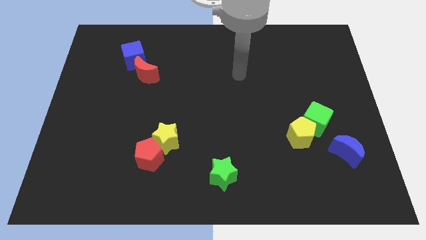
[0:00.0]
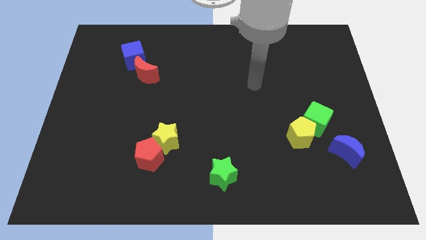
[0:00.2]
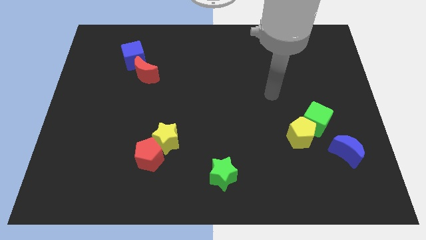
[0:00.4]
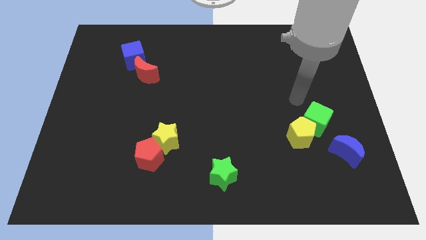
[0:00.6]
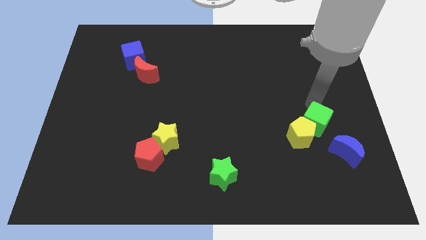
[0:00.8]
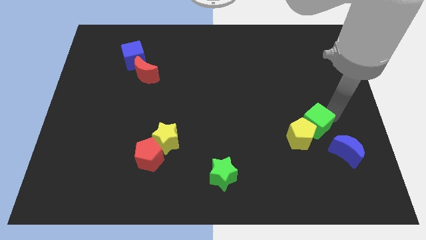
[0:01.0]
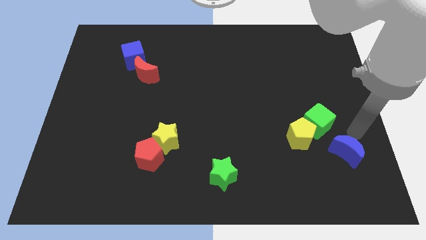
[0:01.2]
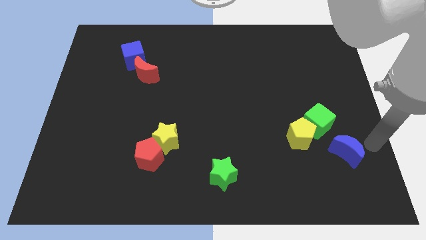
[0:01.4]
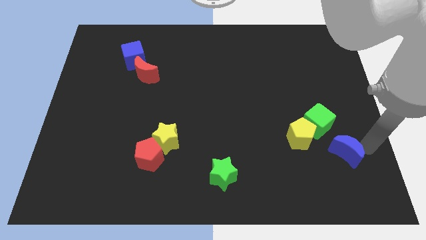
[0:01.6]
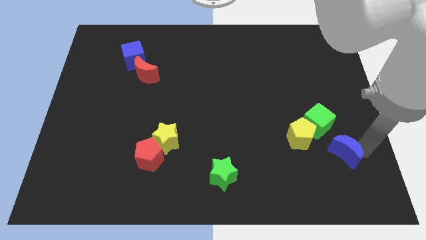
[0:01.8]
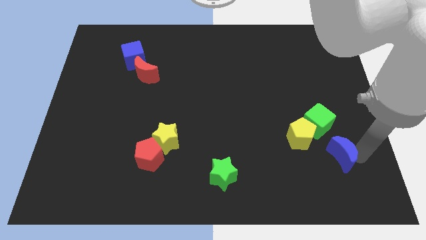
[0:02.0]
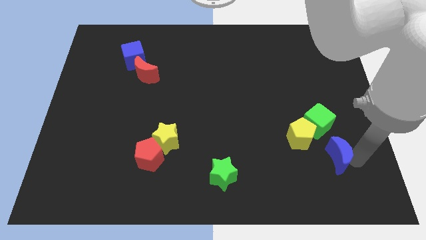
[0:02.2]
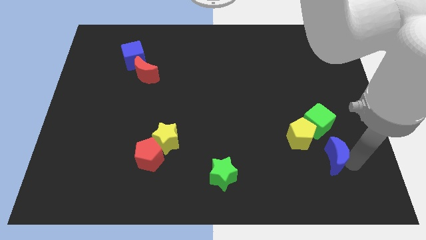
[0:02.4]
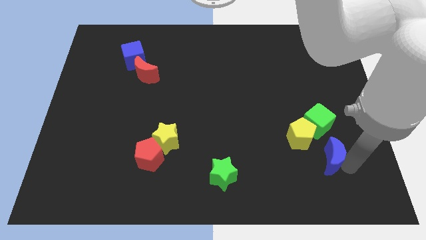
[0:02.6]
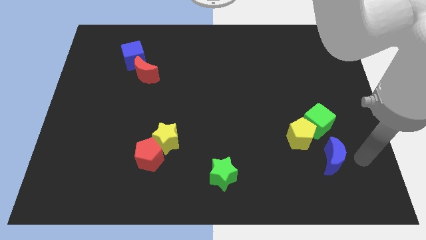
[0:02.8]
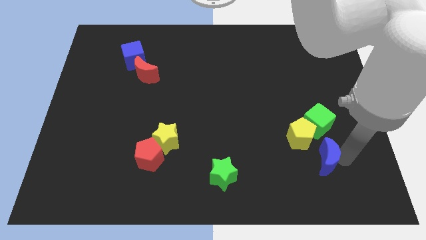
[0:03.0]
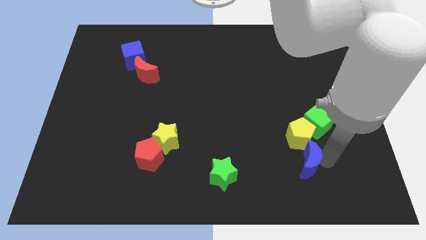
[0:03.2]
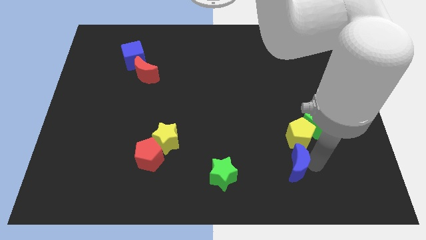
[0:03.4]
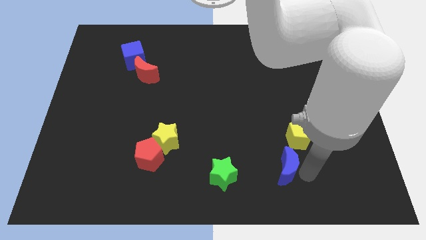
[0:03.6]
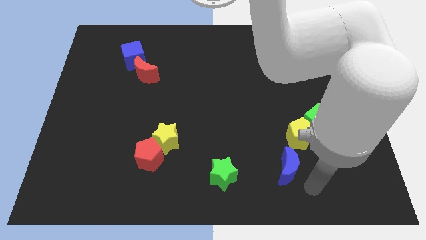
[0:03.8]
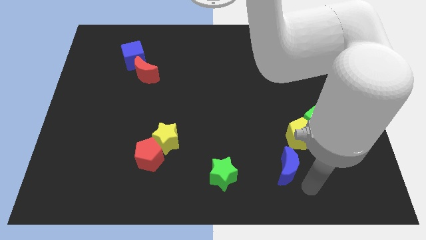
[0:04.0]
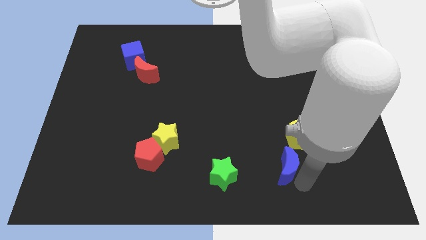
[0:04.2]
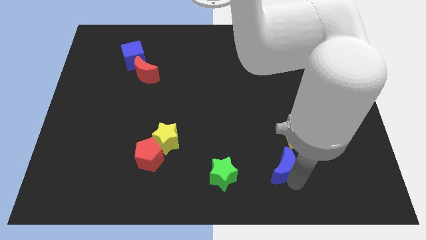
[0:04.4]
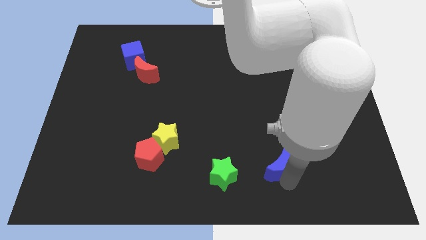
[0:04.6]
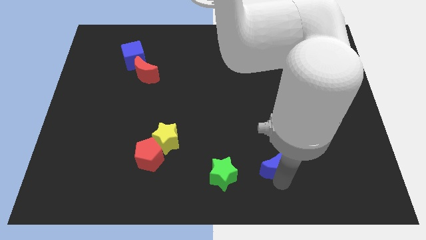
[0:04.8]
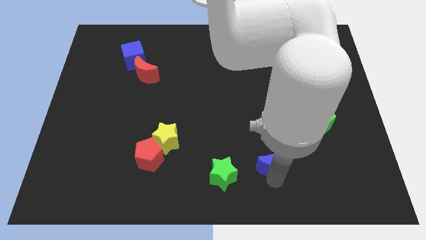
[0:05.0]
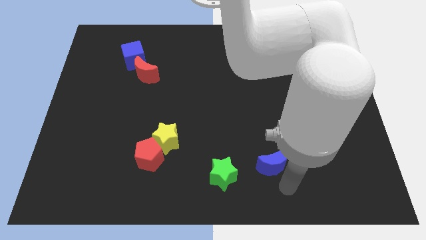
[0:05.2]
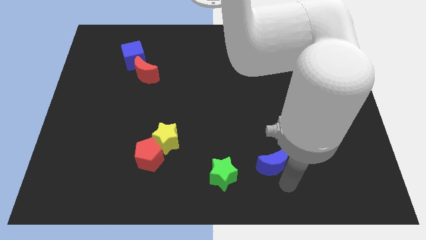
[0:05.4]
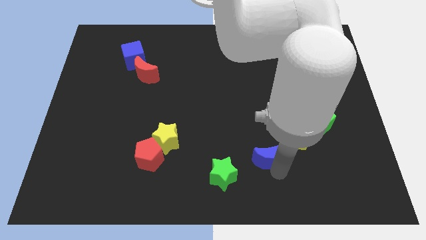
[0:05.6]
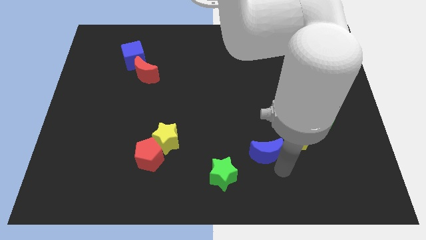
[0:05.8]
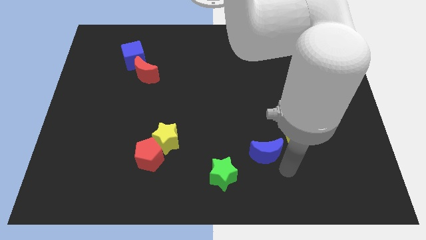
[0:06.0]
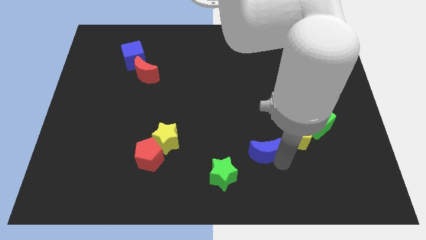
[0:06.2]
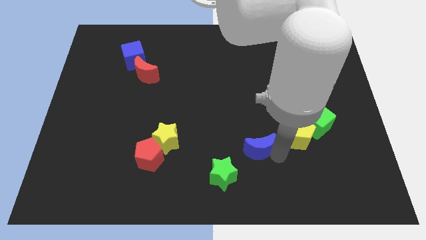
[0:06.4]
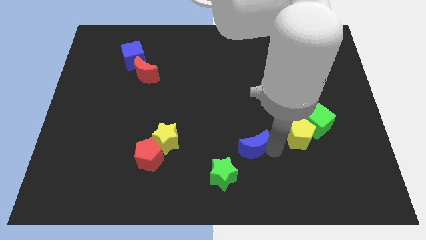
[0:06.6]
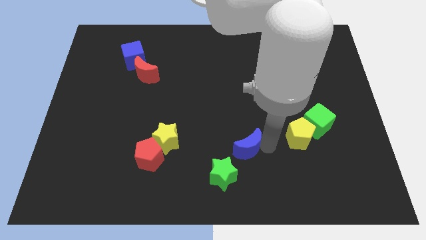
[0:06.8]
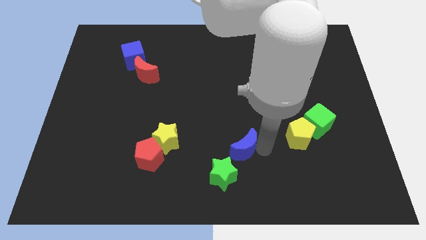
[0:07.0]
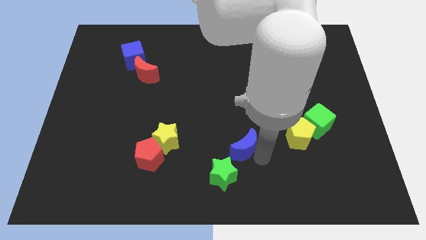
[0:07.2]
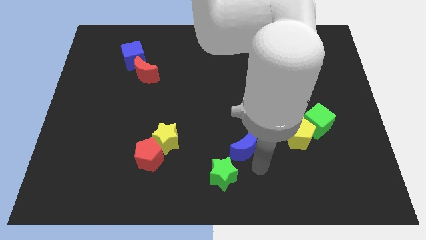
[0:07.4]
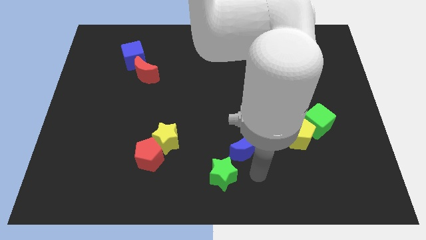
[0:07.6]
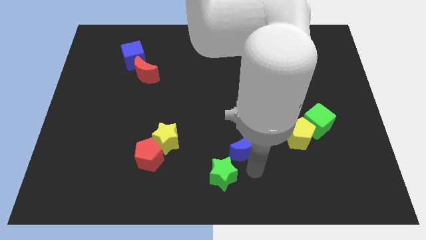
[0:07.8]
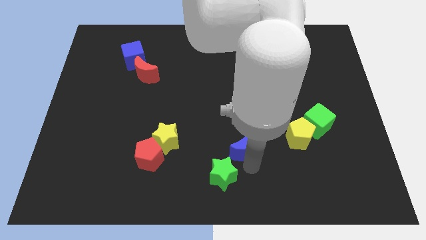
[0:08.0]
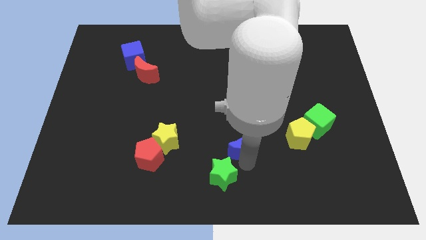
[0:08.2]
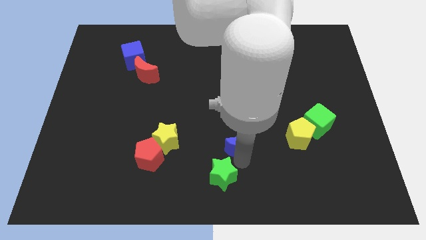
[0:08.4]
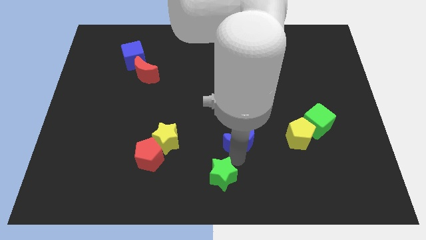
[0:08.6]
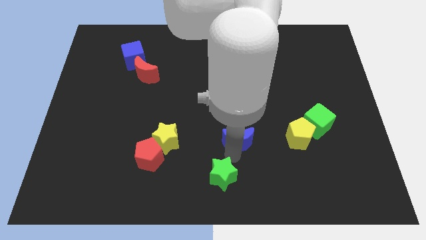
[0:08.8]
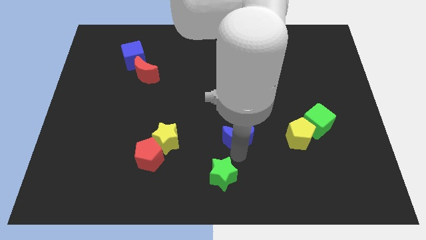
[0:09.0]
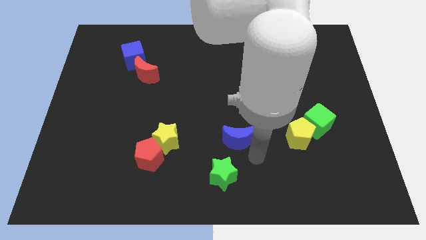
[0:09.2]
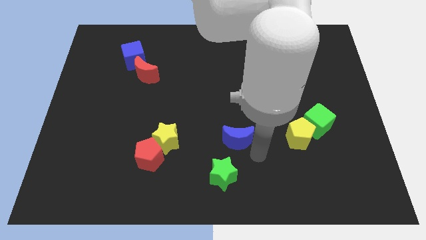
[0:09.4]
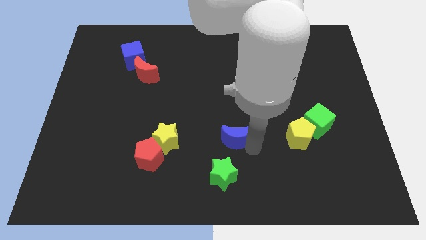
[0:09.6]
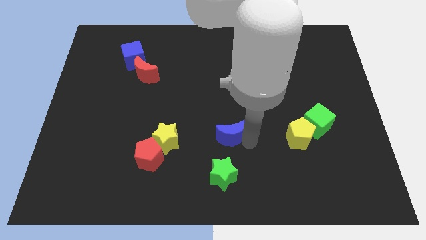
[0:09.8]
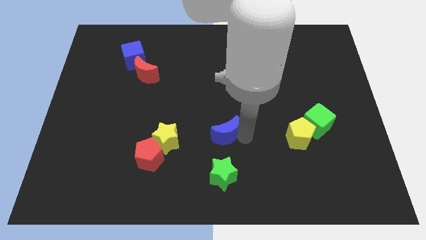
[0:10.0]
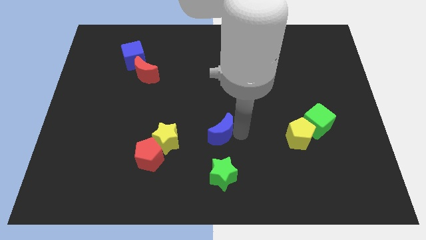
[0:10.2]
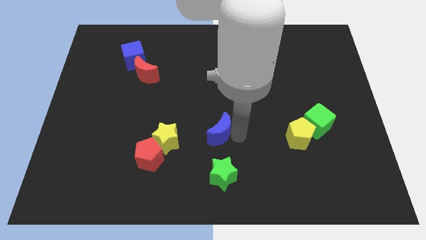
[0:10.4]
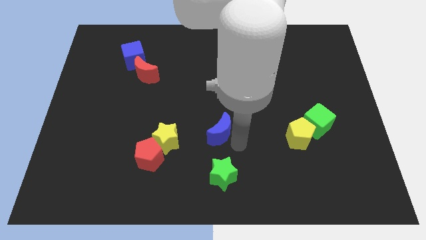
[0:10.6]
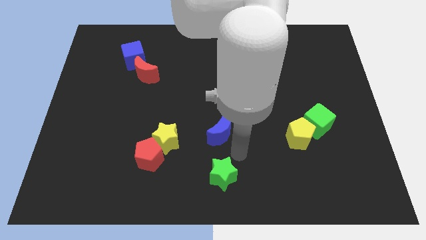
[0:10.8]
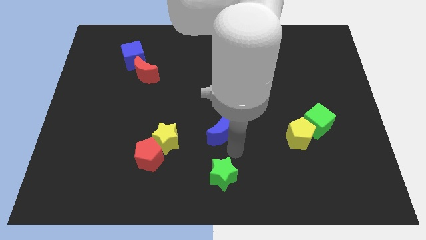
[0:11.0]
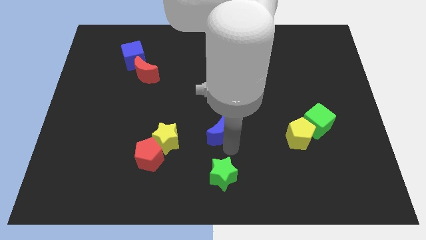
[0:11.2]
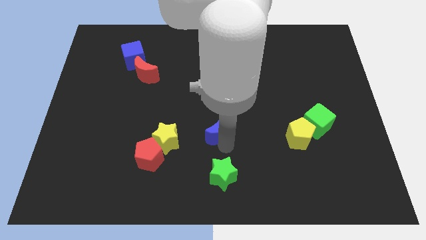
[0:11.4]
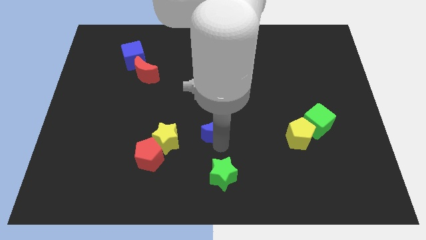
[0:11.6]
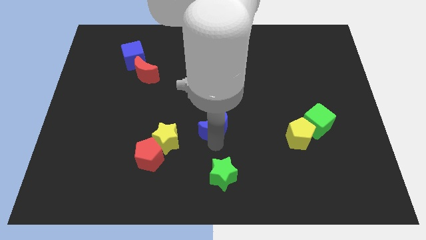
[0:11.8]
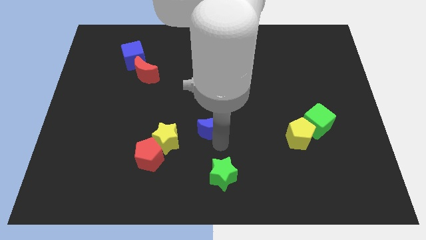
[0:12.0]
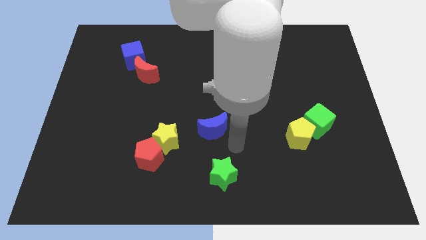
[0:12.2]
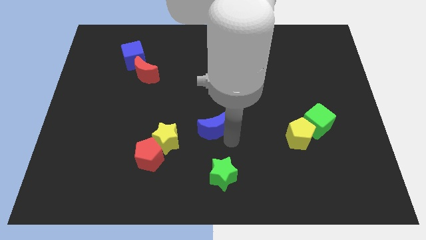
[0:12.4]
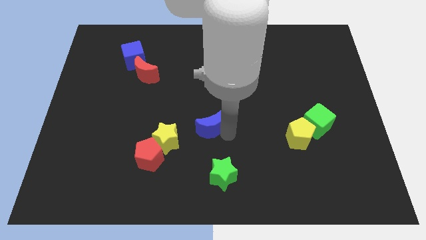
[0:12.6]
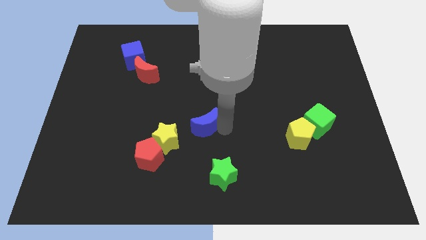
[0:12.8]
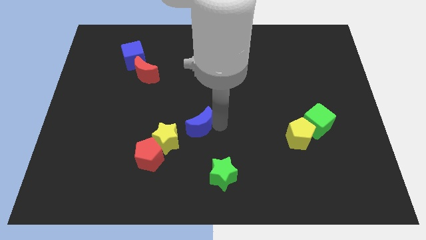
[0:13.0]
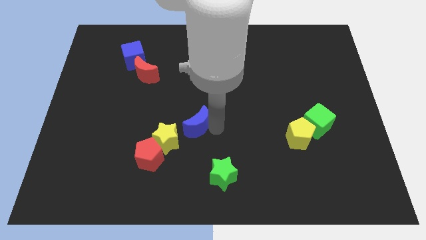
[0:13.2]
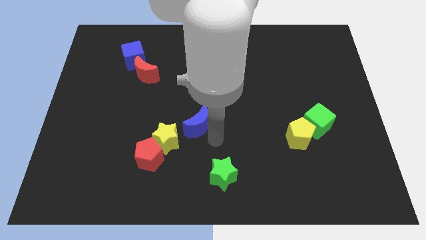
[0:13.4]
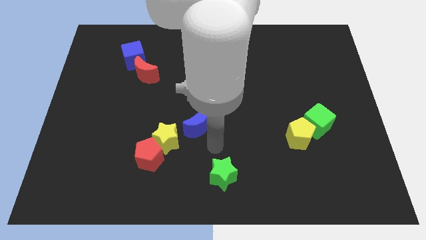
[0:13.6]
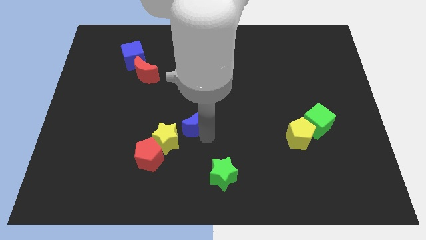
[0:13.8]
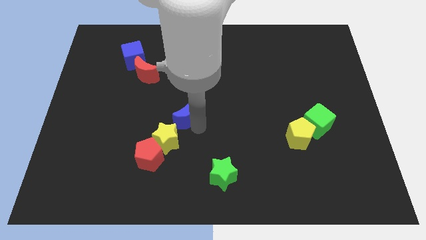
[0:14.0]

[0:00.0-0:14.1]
push the blue moon above the yellow star
